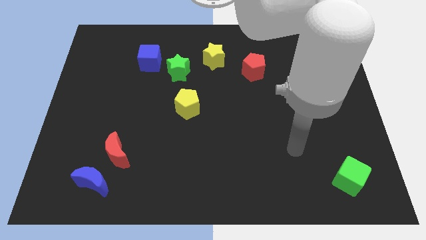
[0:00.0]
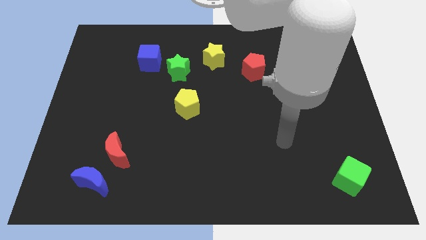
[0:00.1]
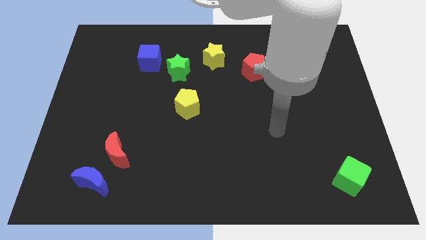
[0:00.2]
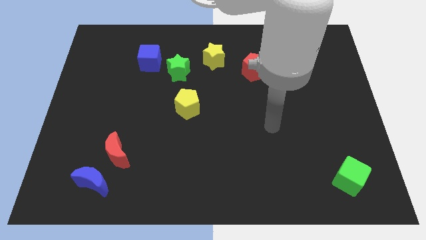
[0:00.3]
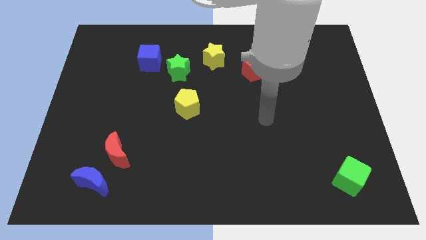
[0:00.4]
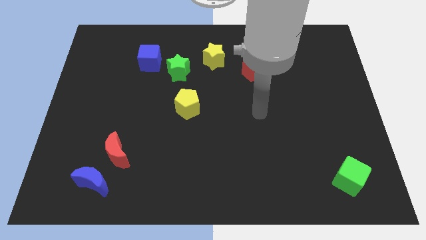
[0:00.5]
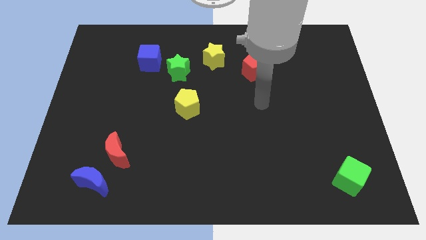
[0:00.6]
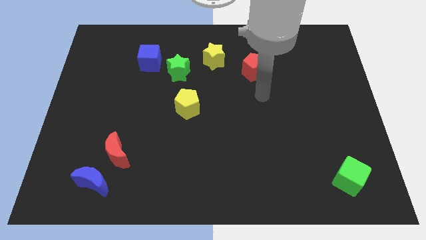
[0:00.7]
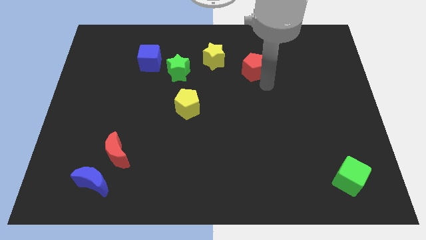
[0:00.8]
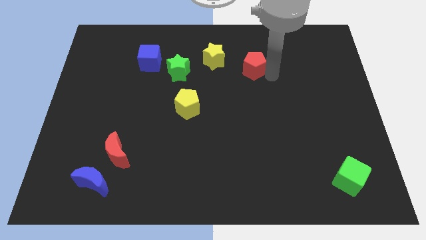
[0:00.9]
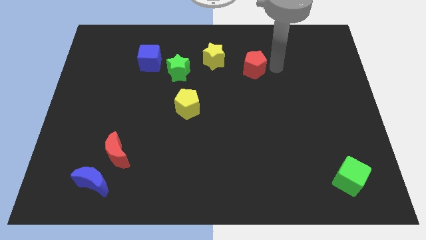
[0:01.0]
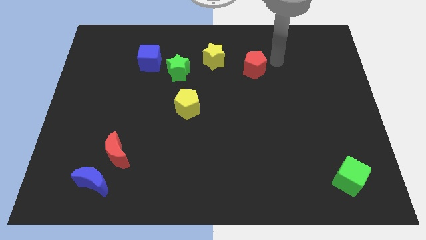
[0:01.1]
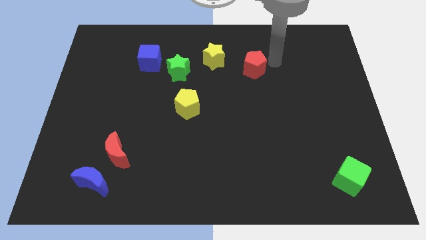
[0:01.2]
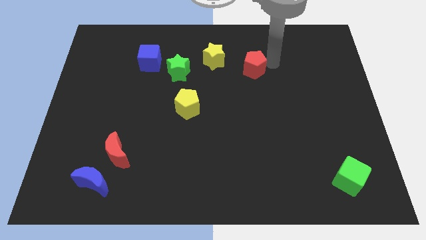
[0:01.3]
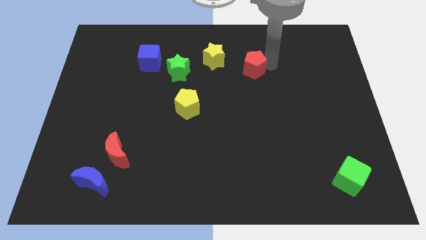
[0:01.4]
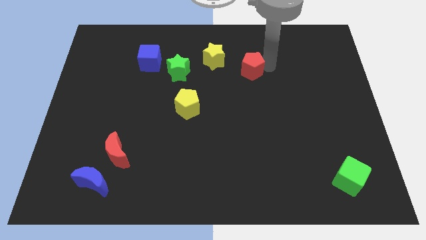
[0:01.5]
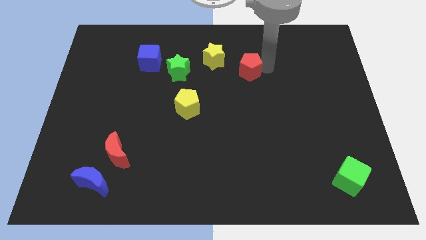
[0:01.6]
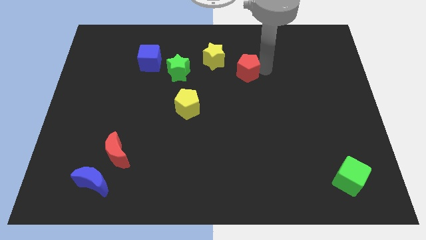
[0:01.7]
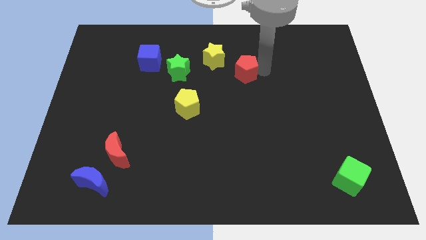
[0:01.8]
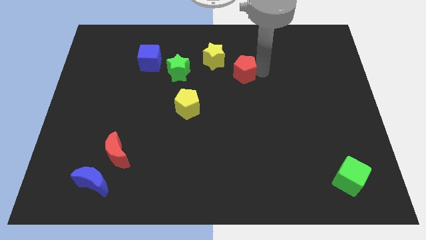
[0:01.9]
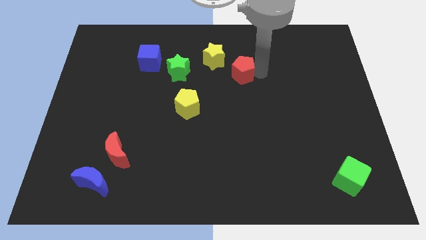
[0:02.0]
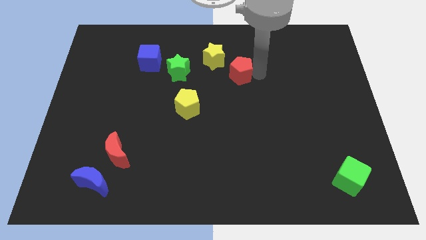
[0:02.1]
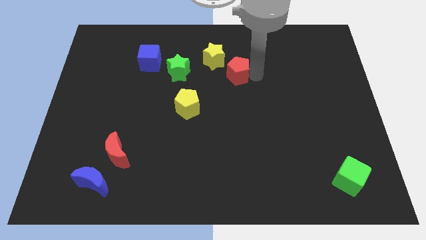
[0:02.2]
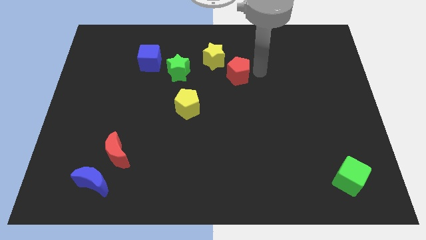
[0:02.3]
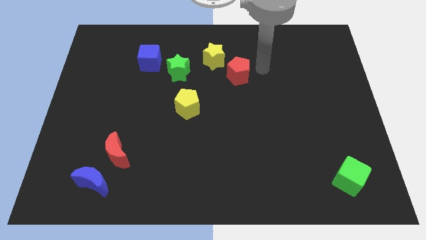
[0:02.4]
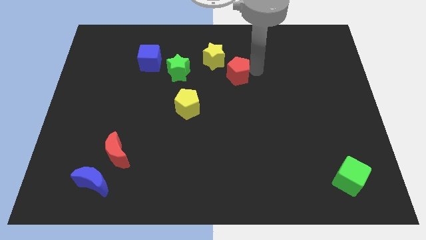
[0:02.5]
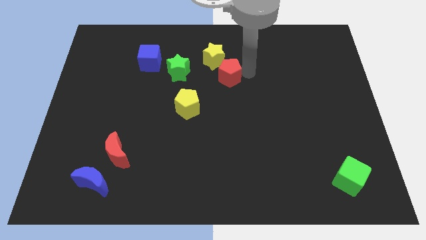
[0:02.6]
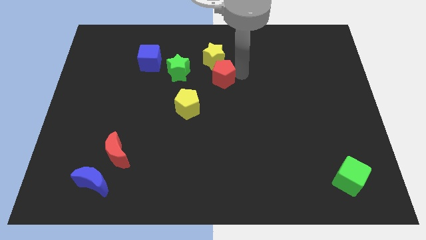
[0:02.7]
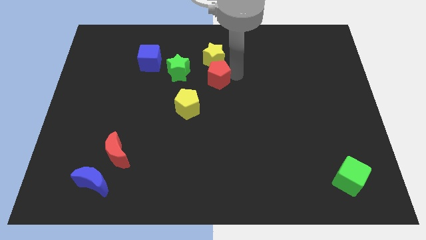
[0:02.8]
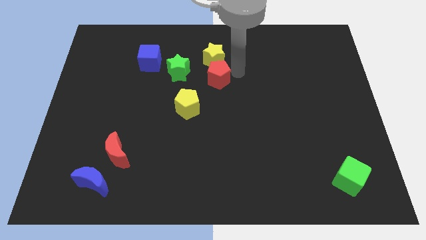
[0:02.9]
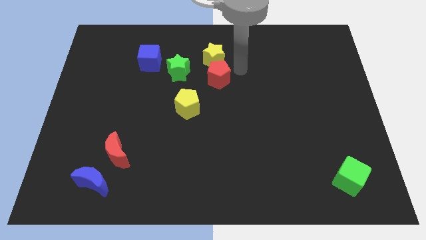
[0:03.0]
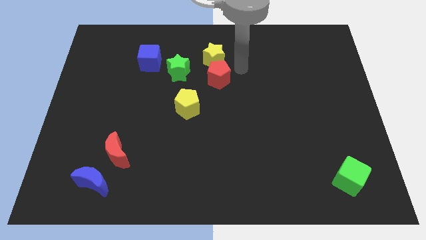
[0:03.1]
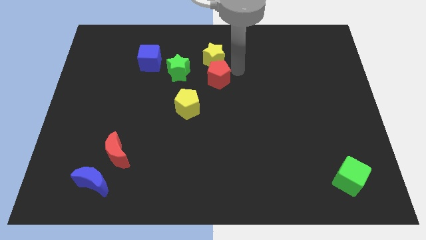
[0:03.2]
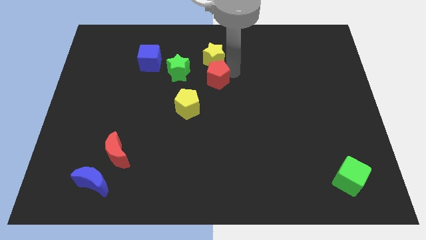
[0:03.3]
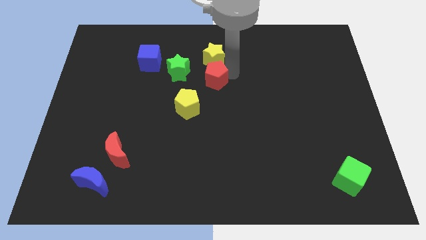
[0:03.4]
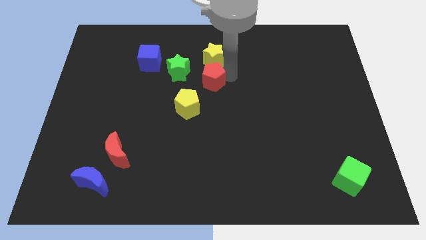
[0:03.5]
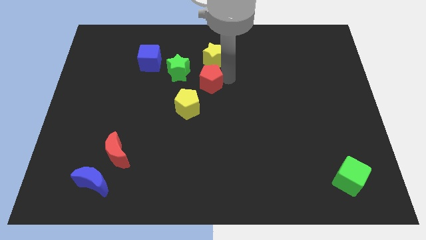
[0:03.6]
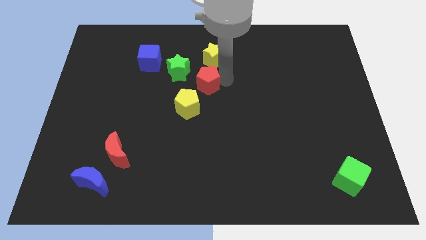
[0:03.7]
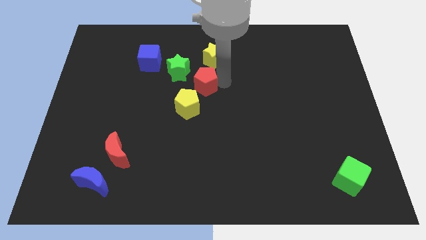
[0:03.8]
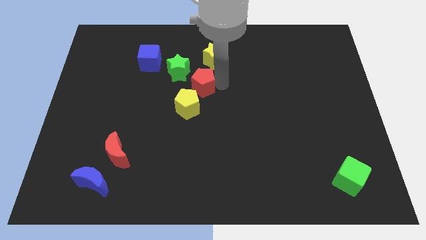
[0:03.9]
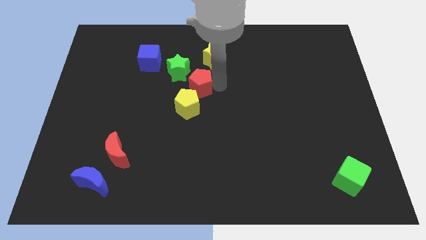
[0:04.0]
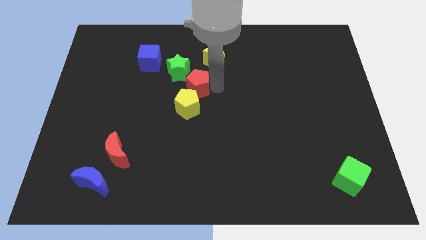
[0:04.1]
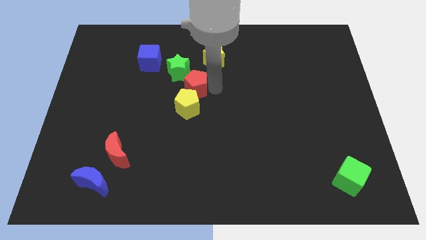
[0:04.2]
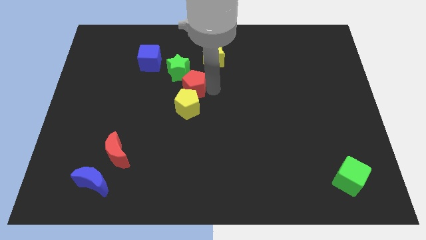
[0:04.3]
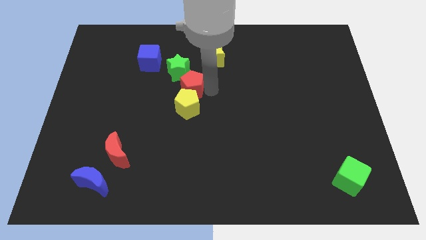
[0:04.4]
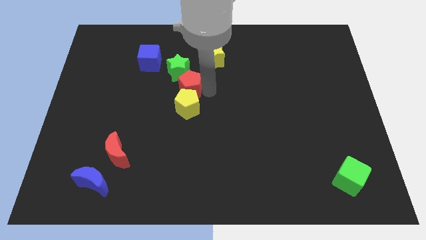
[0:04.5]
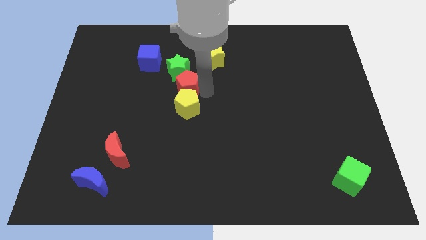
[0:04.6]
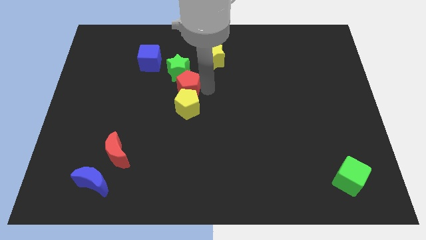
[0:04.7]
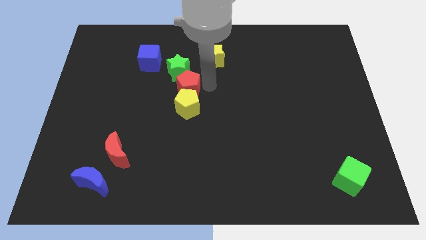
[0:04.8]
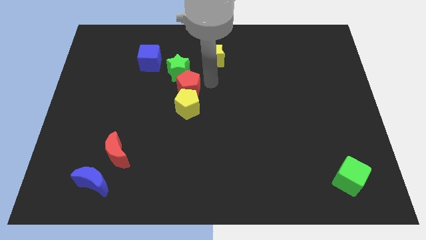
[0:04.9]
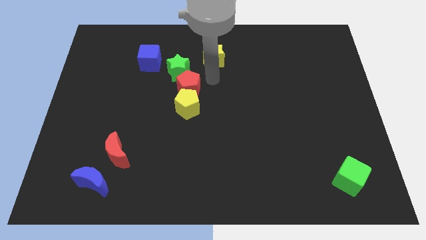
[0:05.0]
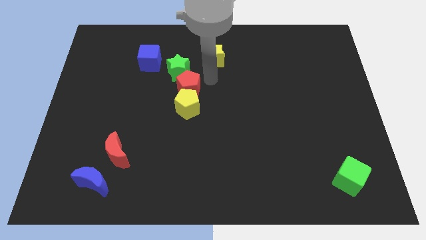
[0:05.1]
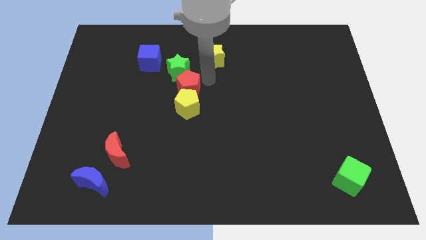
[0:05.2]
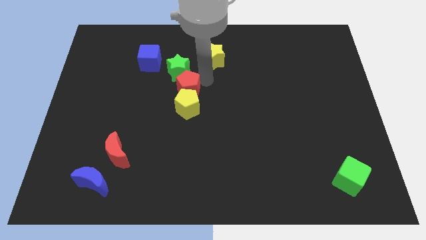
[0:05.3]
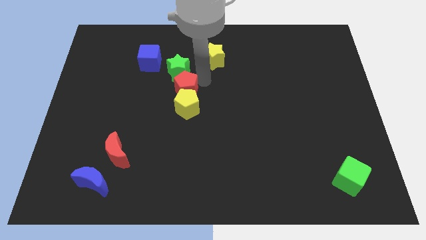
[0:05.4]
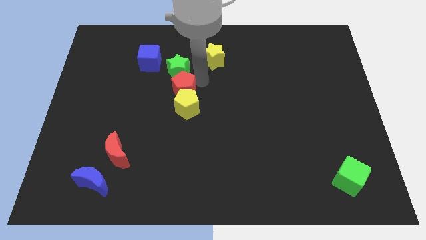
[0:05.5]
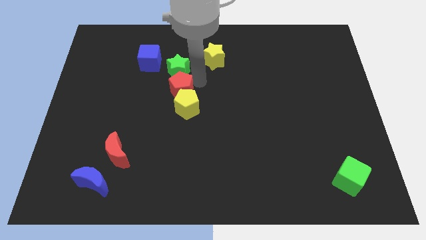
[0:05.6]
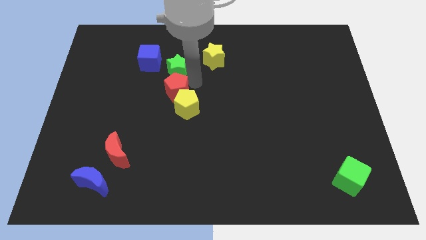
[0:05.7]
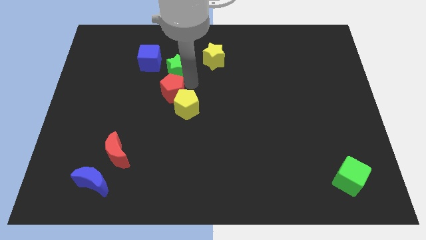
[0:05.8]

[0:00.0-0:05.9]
put the red pentagon to the left side of the yellow pentagon

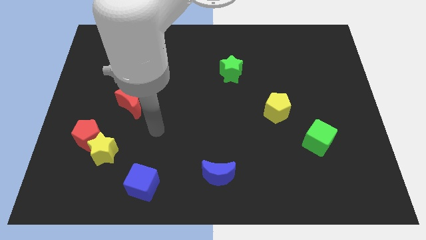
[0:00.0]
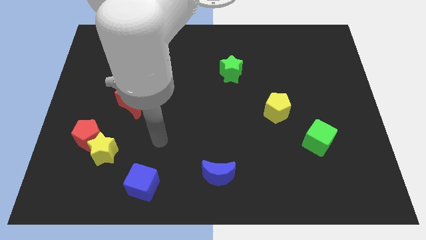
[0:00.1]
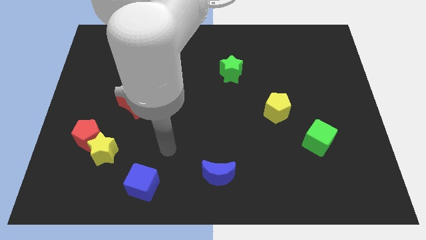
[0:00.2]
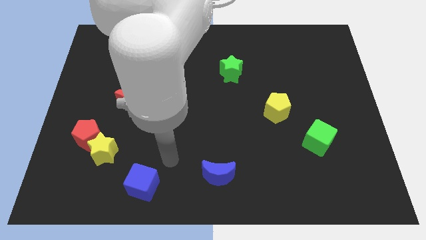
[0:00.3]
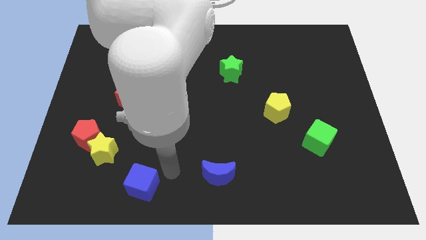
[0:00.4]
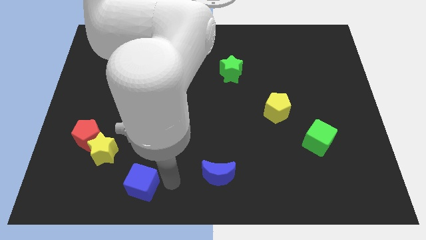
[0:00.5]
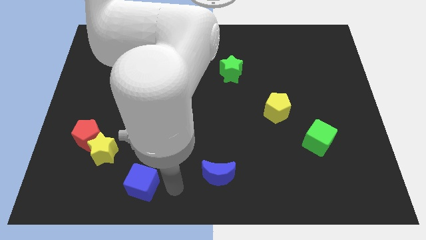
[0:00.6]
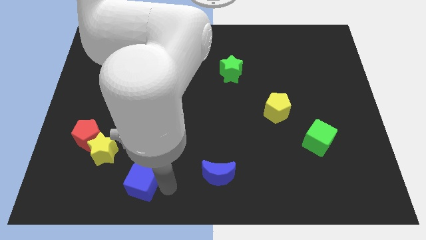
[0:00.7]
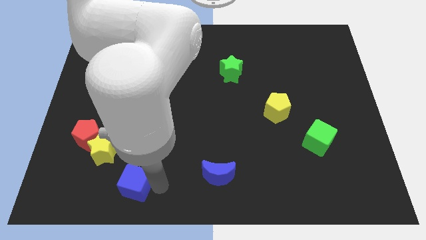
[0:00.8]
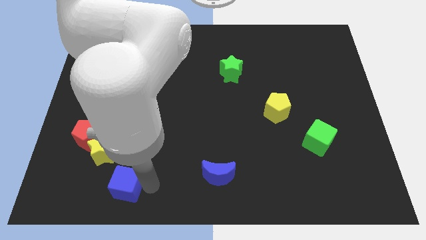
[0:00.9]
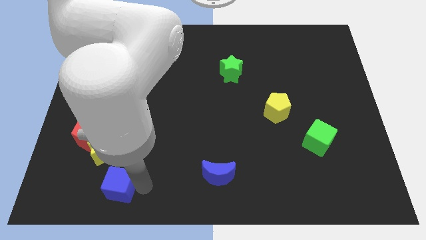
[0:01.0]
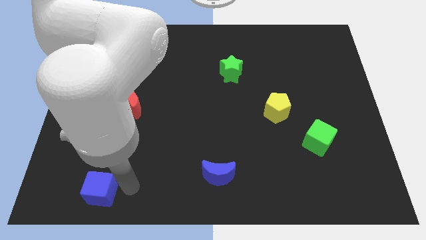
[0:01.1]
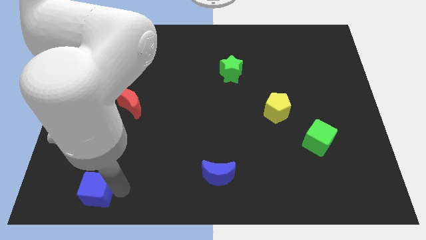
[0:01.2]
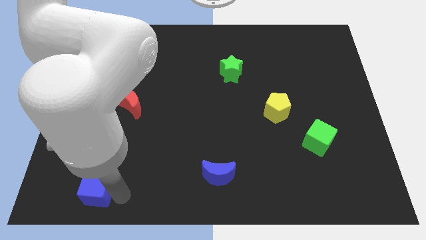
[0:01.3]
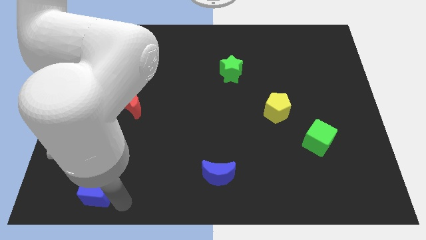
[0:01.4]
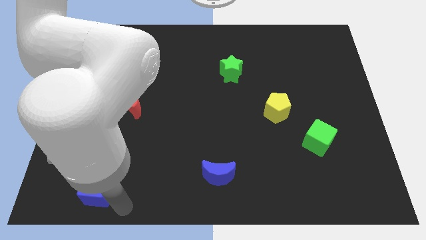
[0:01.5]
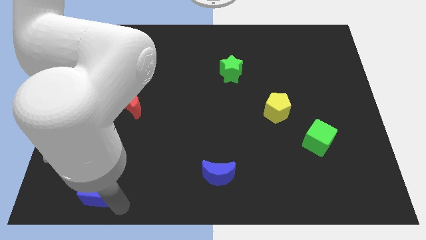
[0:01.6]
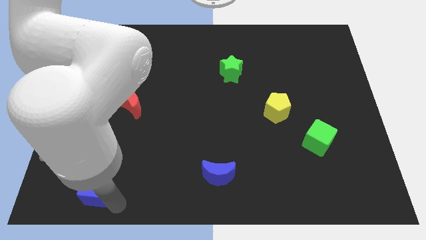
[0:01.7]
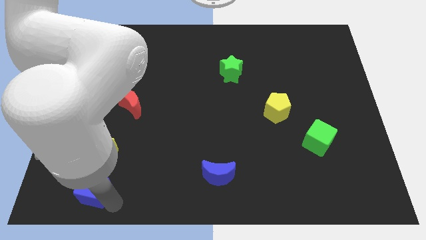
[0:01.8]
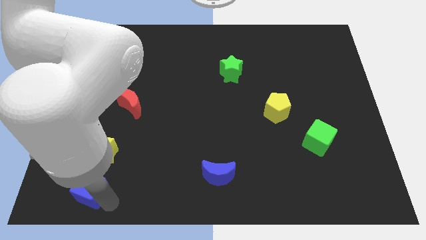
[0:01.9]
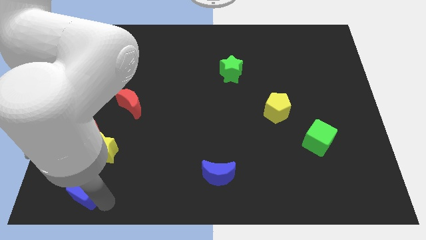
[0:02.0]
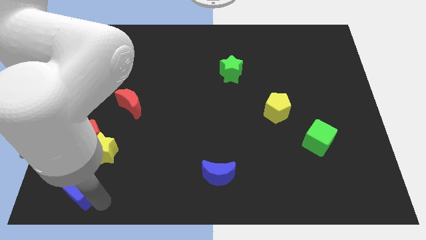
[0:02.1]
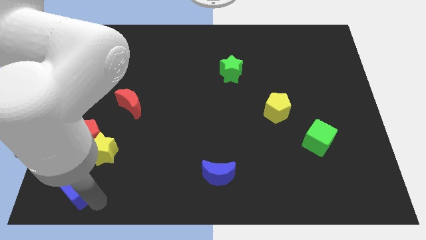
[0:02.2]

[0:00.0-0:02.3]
put the blue cube diagonally down and to the left of the yellow star
